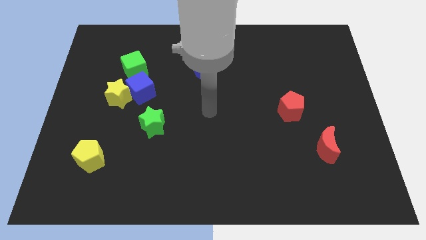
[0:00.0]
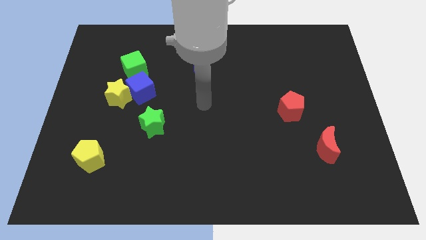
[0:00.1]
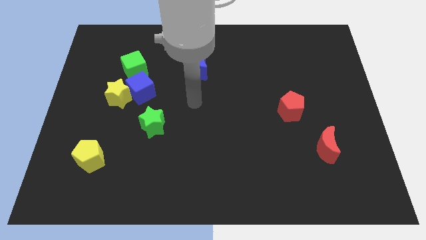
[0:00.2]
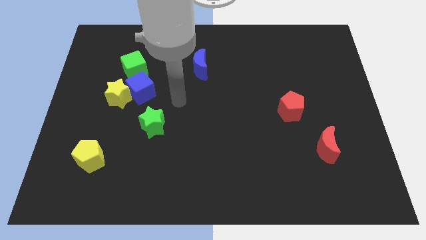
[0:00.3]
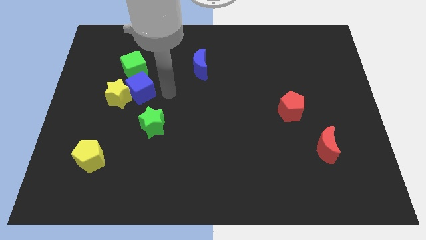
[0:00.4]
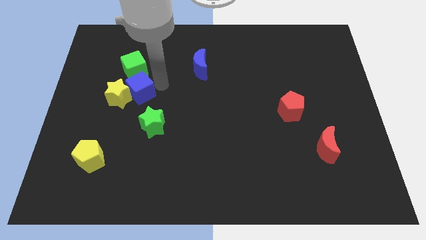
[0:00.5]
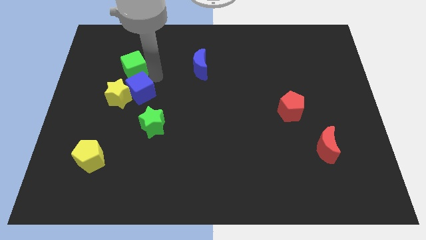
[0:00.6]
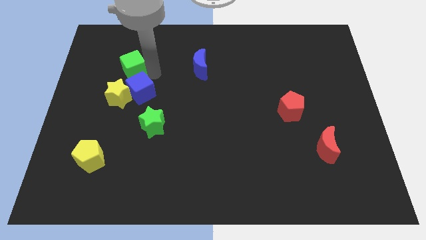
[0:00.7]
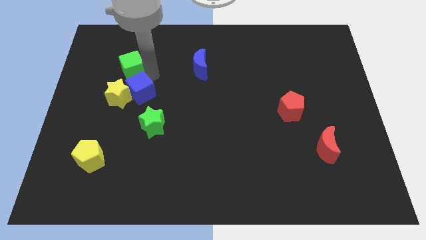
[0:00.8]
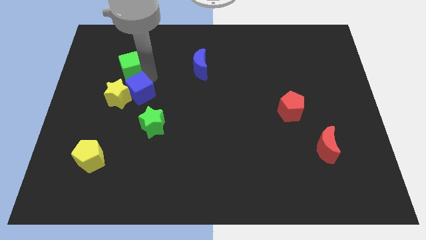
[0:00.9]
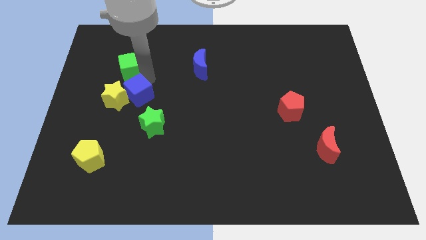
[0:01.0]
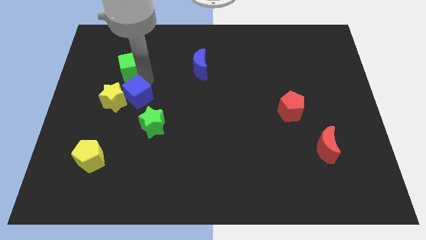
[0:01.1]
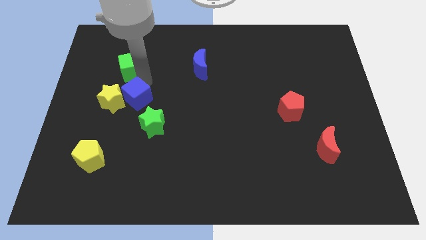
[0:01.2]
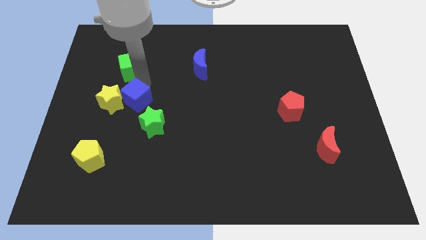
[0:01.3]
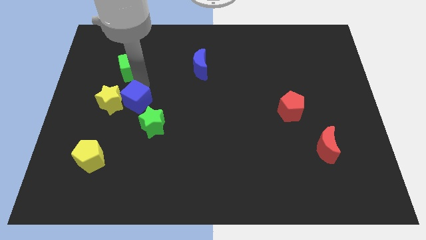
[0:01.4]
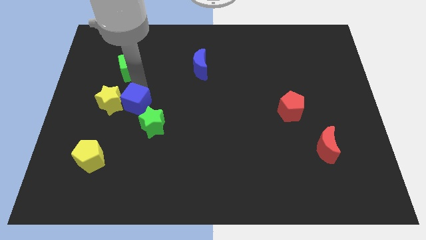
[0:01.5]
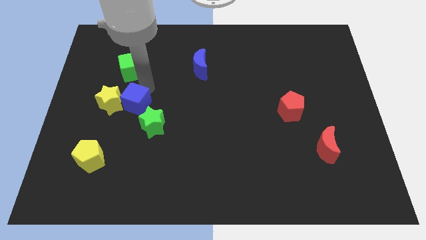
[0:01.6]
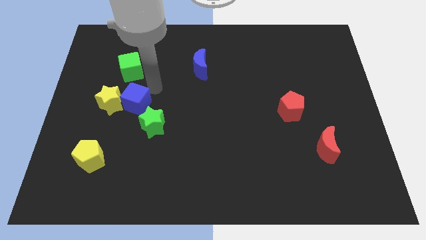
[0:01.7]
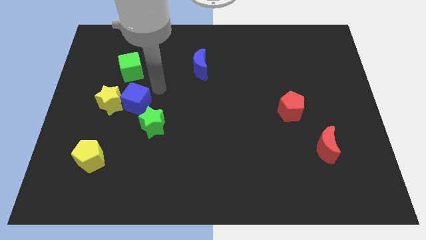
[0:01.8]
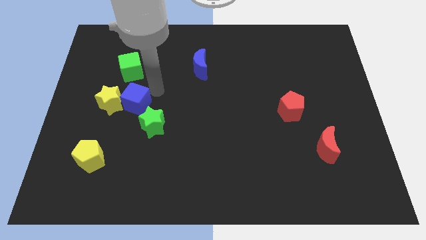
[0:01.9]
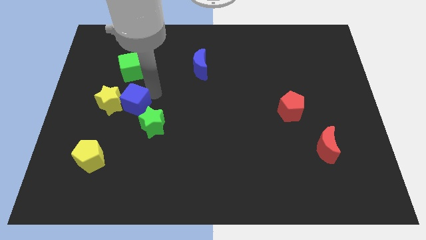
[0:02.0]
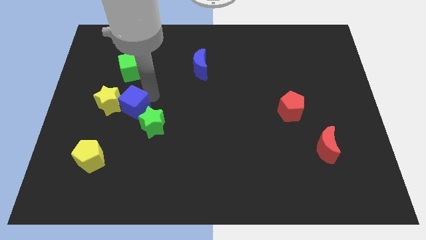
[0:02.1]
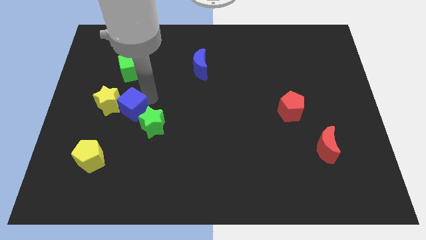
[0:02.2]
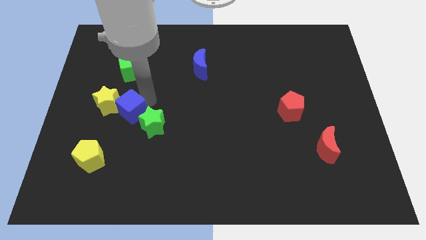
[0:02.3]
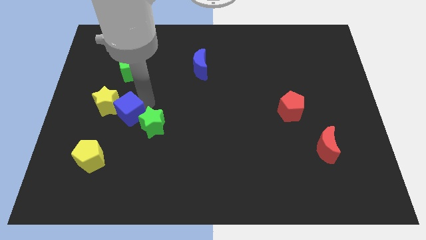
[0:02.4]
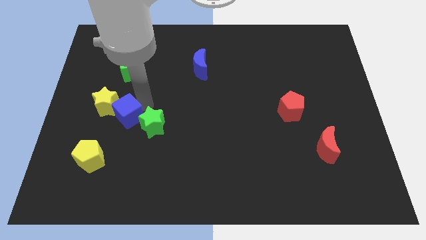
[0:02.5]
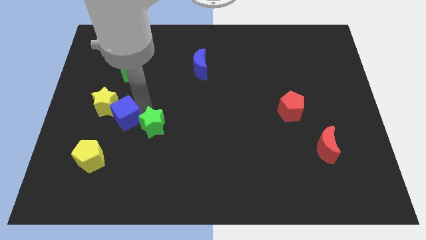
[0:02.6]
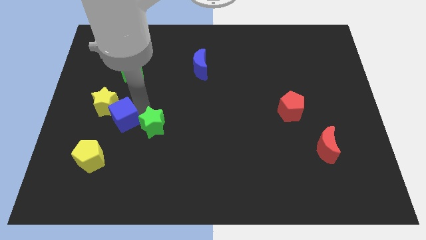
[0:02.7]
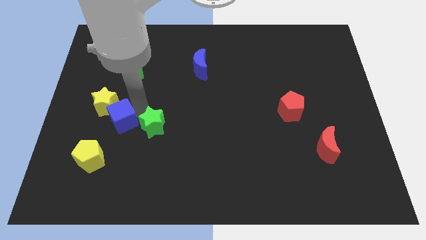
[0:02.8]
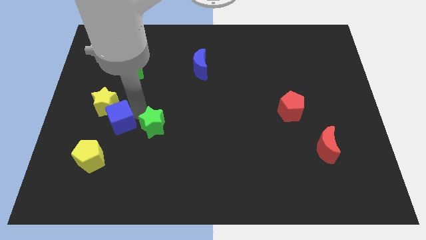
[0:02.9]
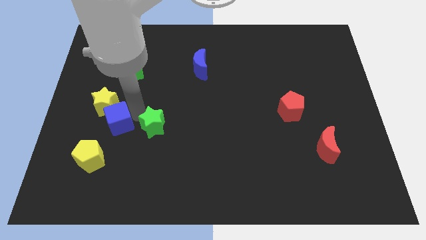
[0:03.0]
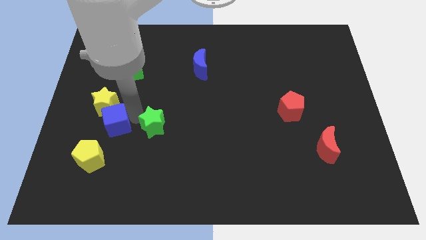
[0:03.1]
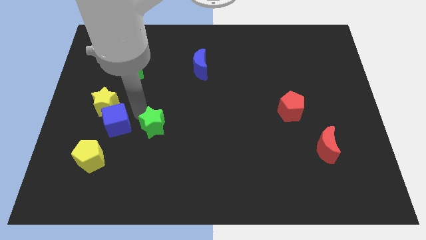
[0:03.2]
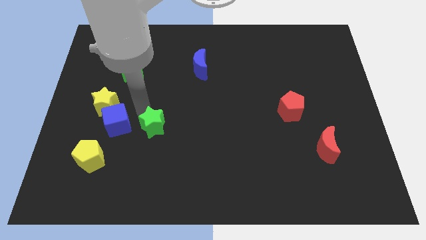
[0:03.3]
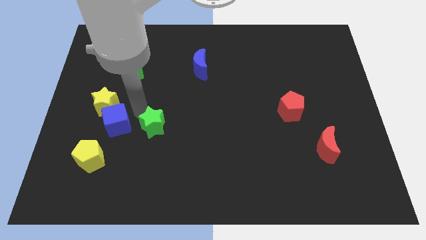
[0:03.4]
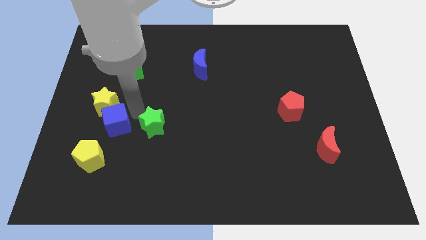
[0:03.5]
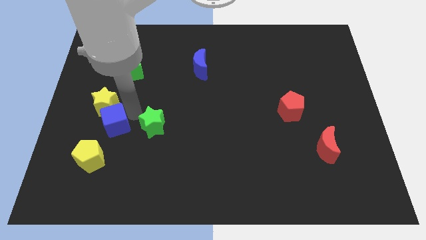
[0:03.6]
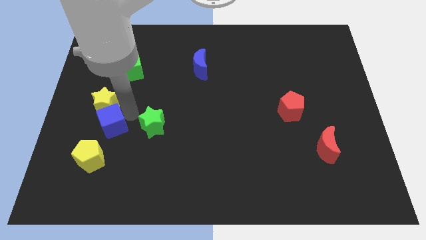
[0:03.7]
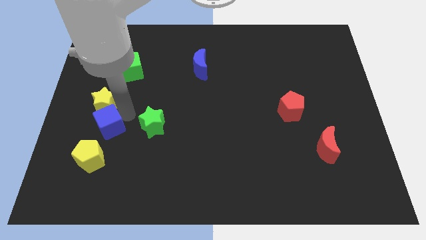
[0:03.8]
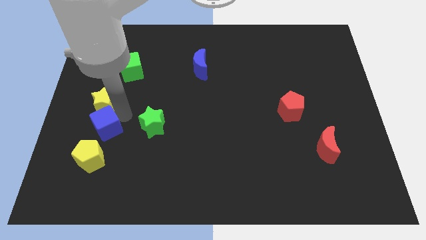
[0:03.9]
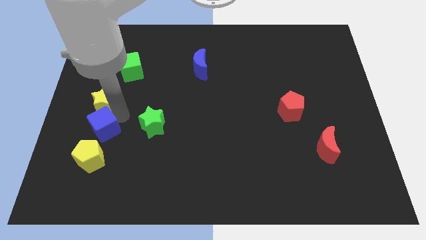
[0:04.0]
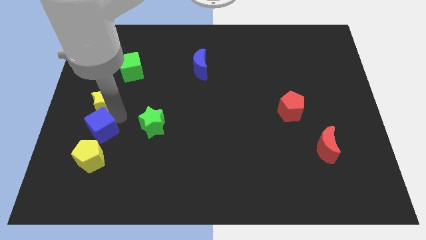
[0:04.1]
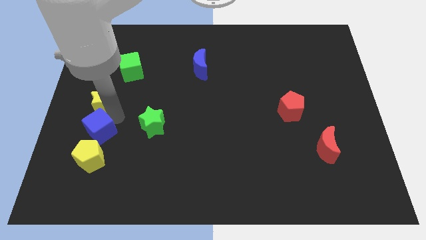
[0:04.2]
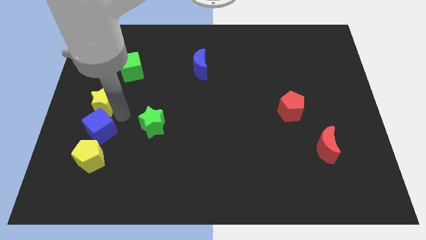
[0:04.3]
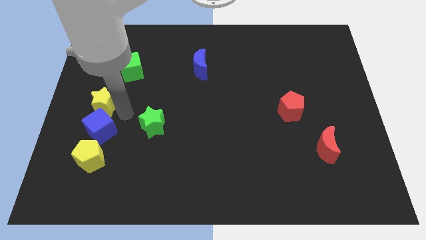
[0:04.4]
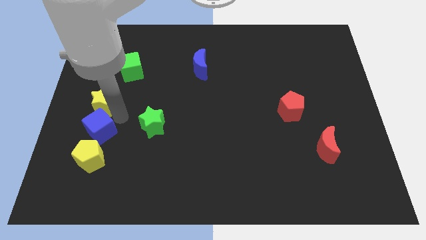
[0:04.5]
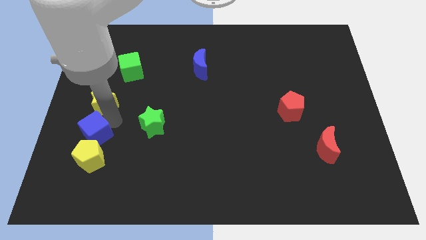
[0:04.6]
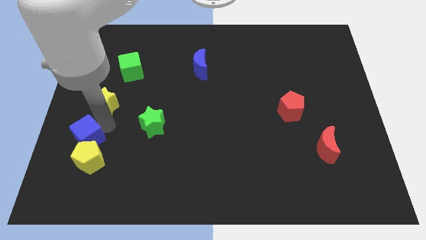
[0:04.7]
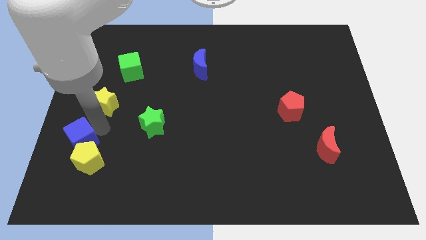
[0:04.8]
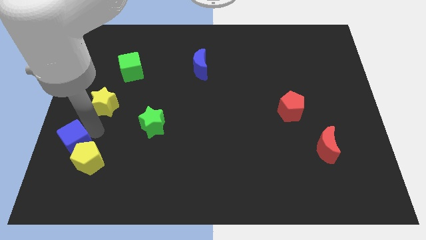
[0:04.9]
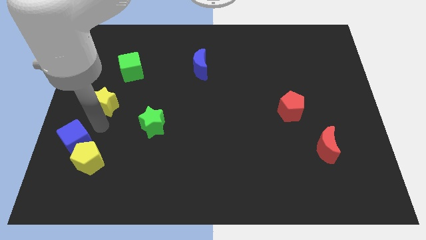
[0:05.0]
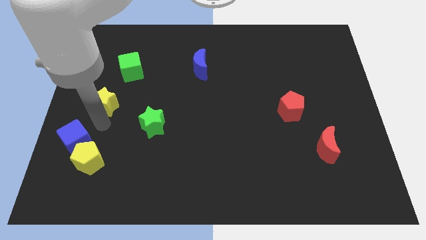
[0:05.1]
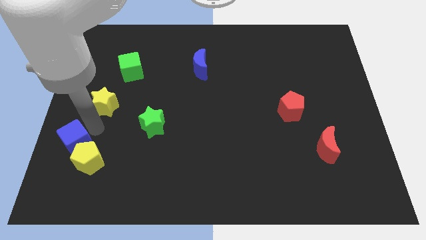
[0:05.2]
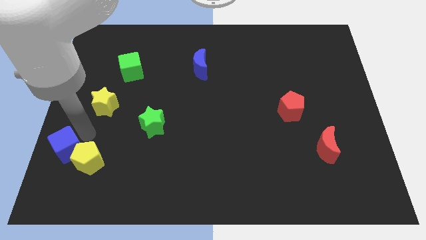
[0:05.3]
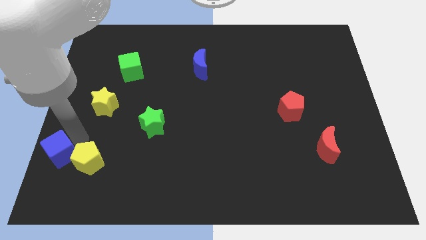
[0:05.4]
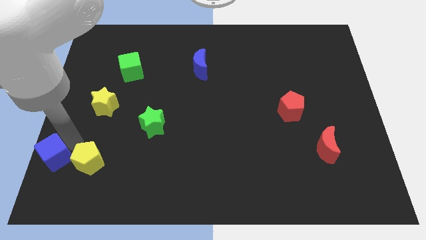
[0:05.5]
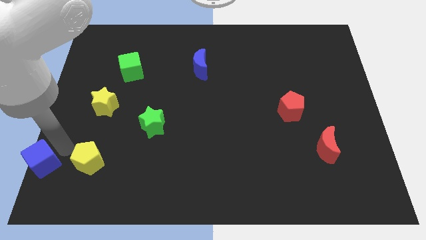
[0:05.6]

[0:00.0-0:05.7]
put the blue cube to the bottom left corner

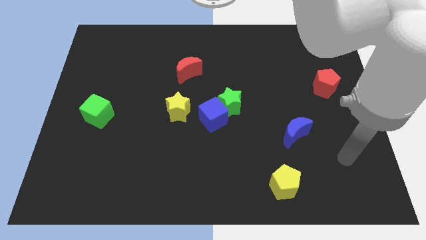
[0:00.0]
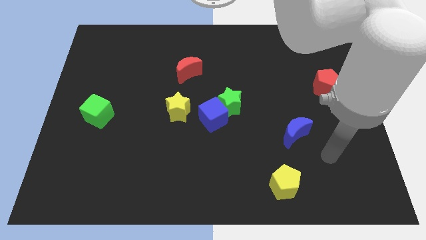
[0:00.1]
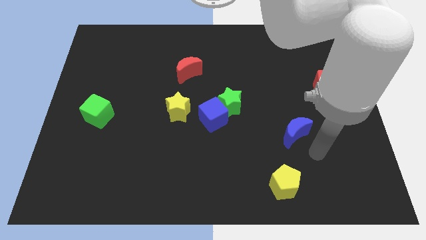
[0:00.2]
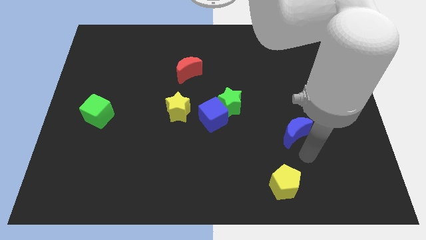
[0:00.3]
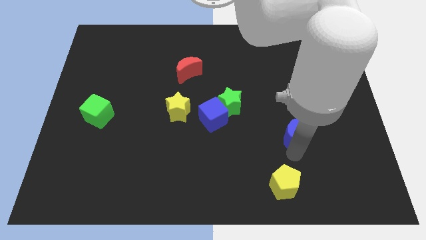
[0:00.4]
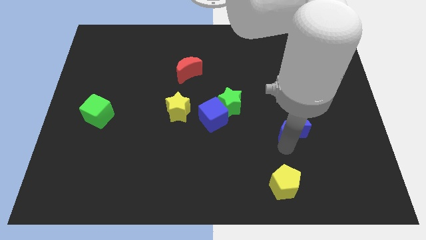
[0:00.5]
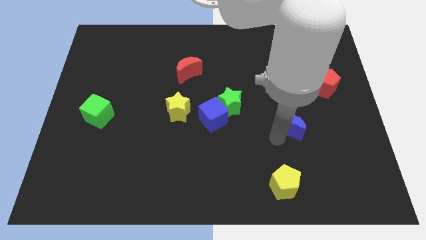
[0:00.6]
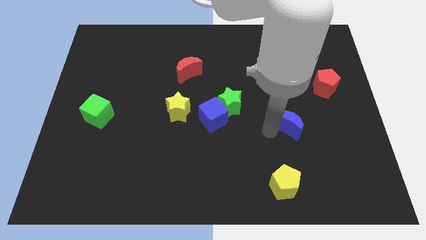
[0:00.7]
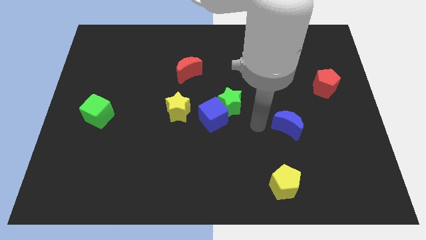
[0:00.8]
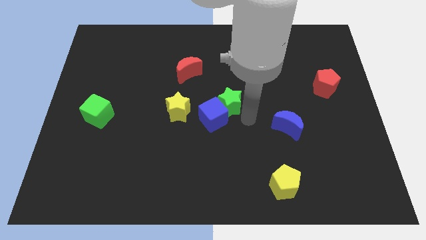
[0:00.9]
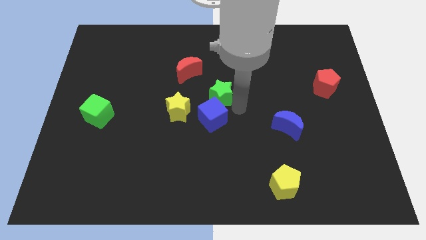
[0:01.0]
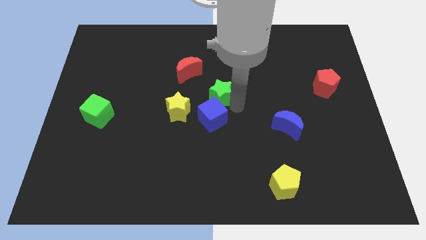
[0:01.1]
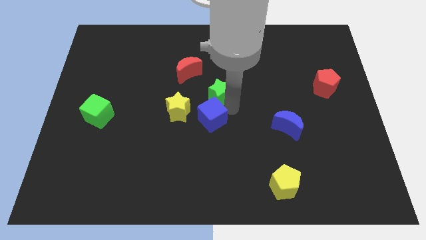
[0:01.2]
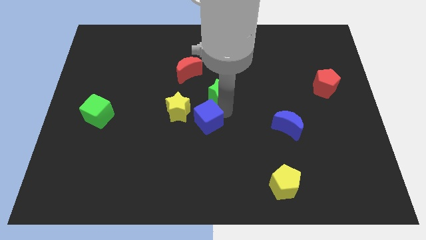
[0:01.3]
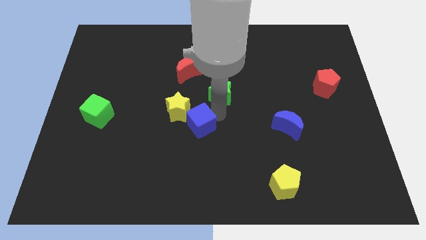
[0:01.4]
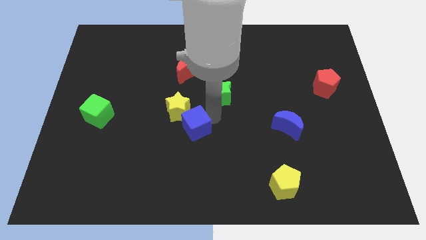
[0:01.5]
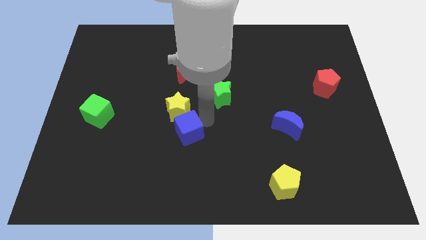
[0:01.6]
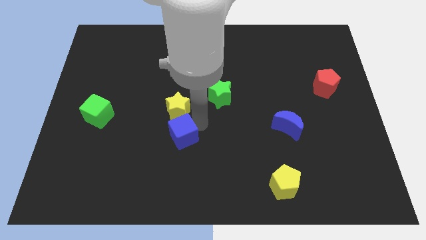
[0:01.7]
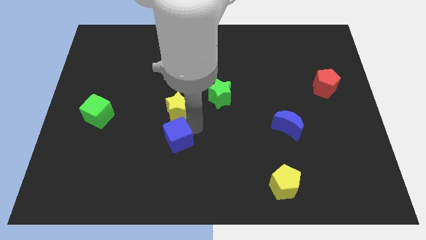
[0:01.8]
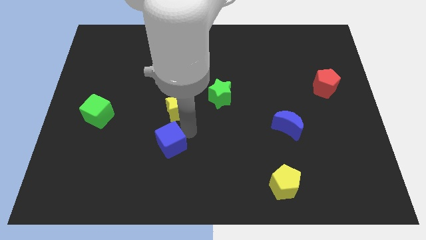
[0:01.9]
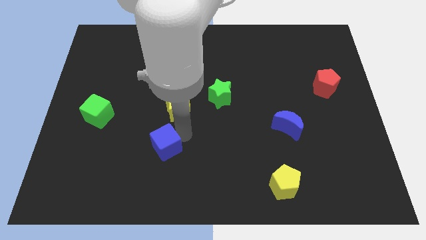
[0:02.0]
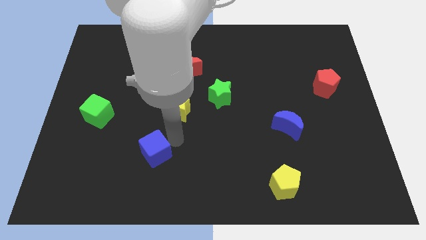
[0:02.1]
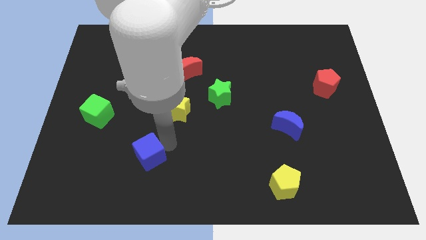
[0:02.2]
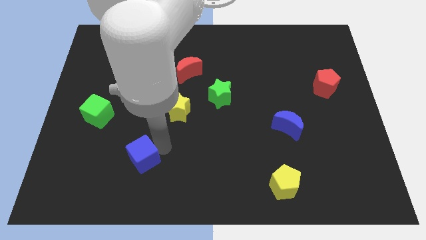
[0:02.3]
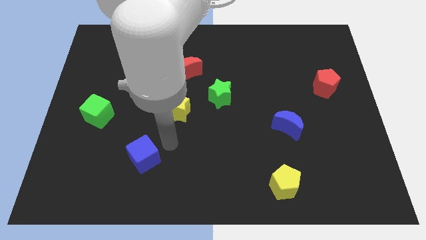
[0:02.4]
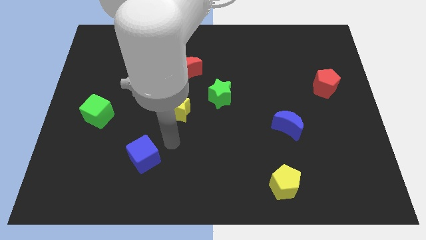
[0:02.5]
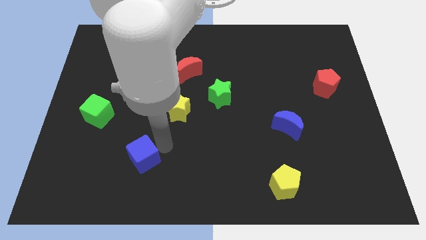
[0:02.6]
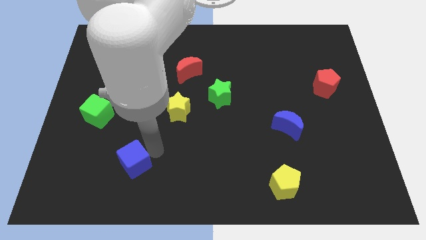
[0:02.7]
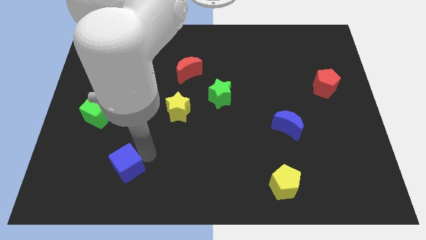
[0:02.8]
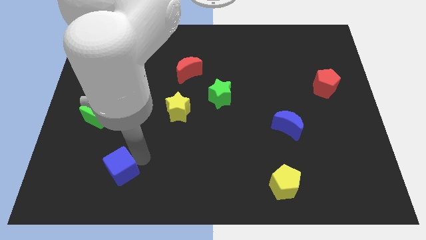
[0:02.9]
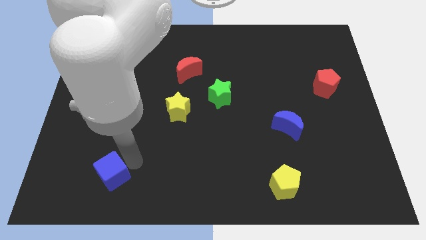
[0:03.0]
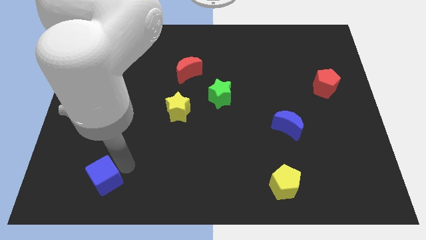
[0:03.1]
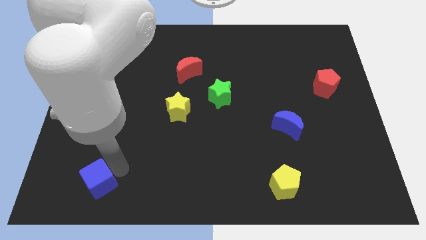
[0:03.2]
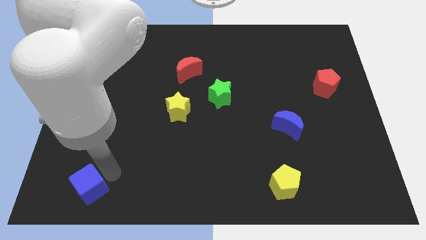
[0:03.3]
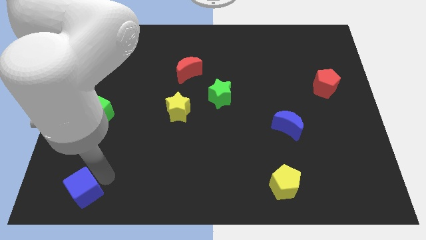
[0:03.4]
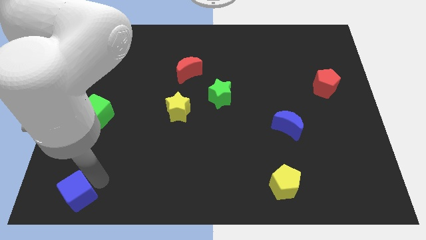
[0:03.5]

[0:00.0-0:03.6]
put the blue cube to the bottom left
